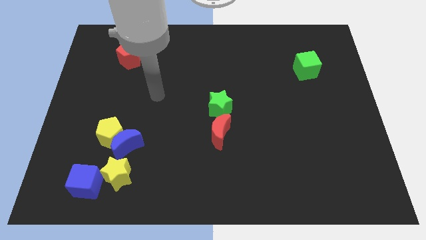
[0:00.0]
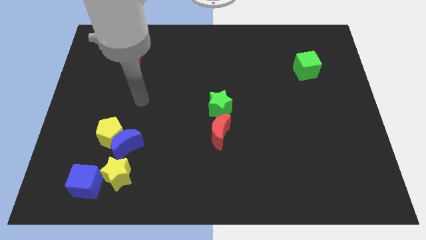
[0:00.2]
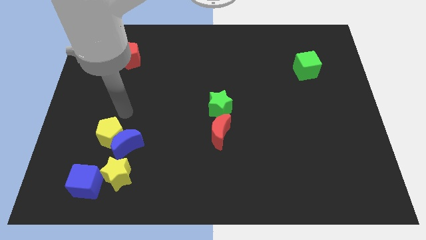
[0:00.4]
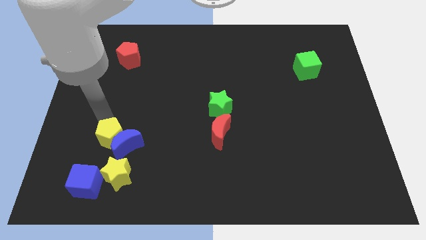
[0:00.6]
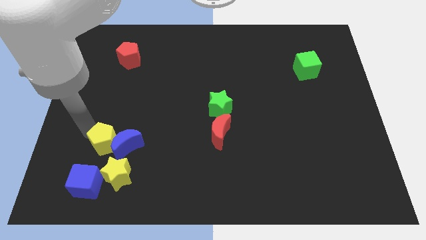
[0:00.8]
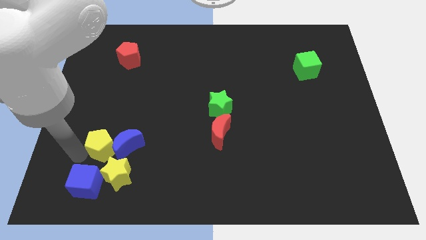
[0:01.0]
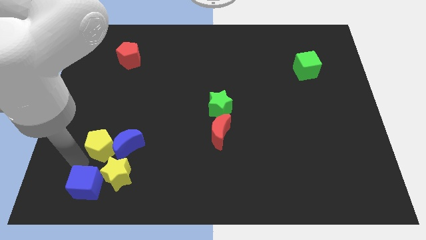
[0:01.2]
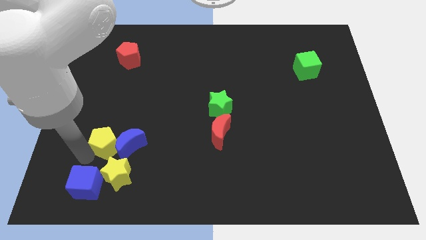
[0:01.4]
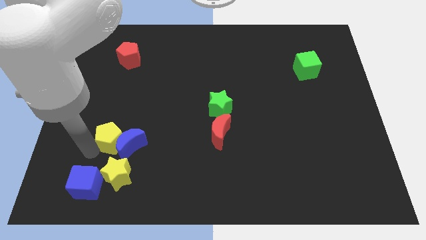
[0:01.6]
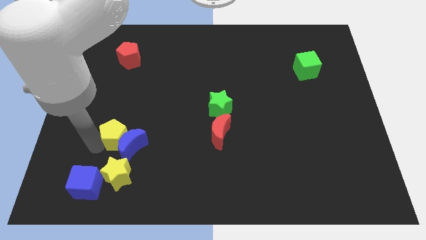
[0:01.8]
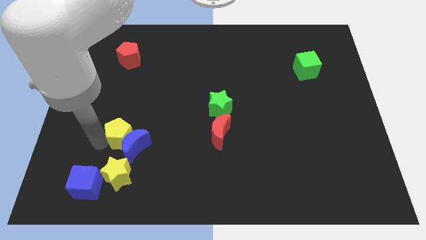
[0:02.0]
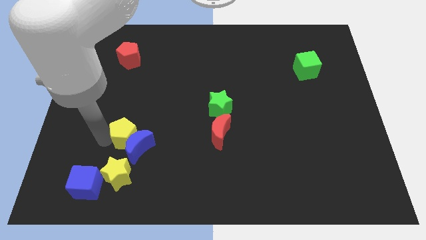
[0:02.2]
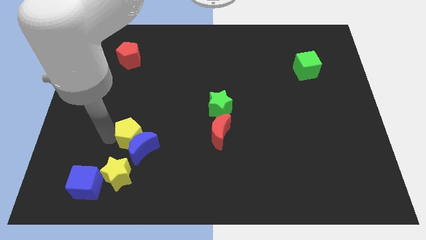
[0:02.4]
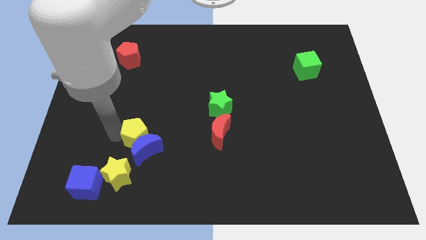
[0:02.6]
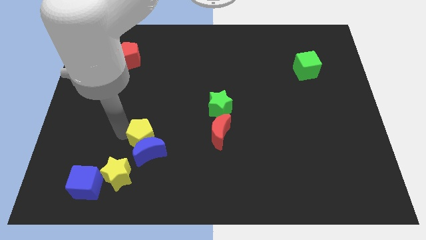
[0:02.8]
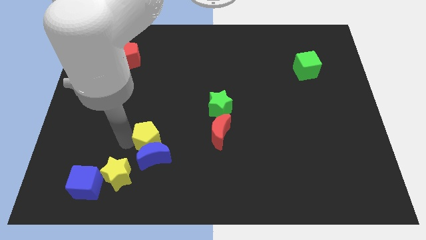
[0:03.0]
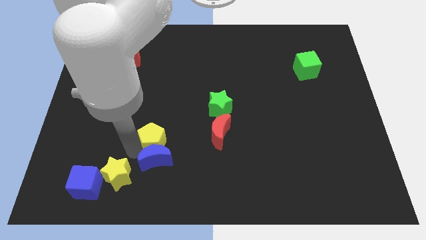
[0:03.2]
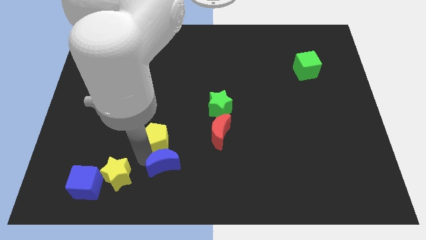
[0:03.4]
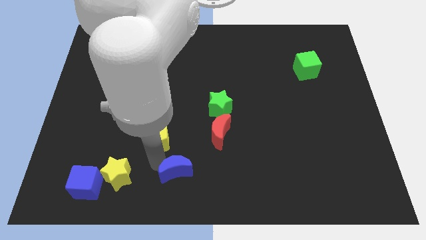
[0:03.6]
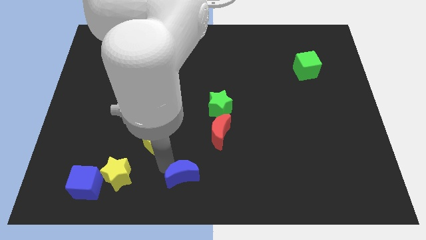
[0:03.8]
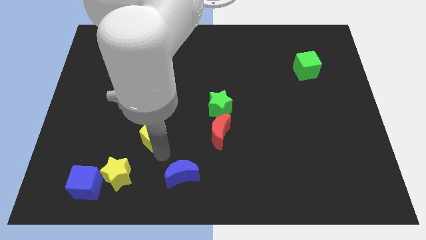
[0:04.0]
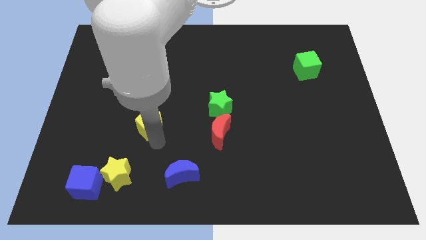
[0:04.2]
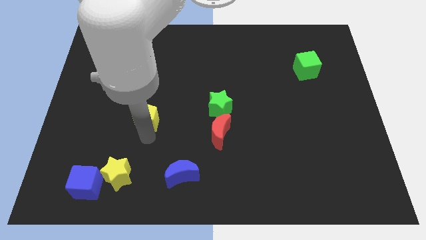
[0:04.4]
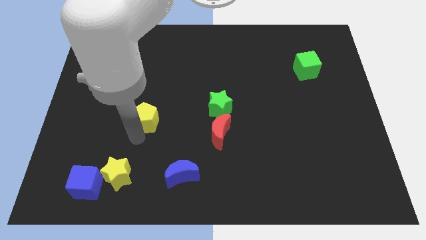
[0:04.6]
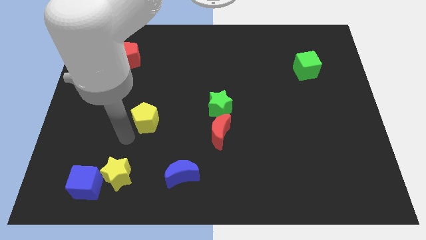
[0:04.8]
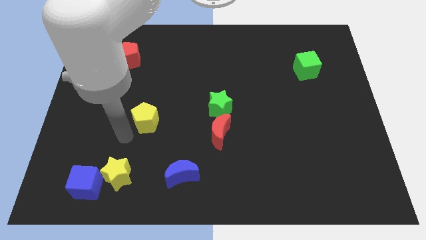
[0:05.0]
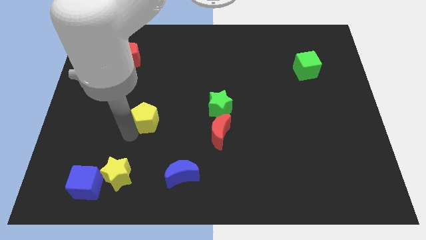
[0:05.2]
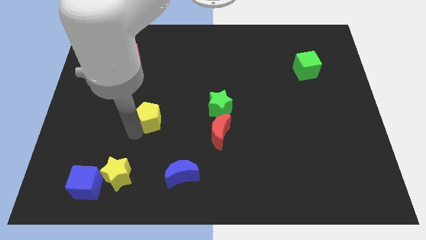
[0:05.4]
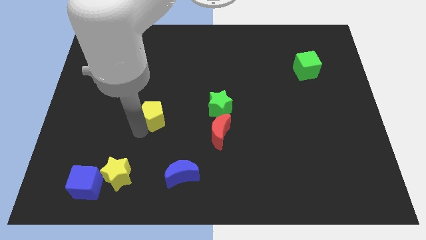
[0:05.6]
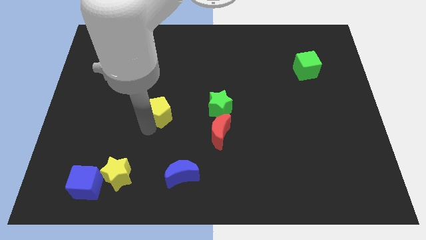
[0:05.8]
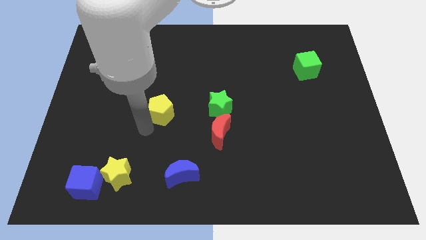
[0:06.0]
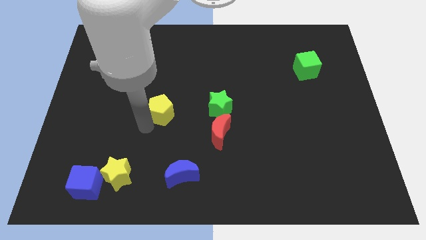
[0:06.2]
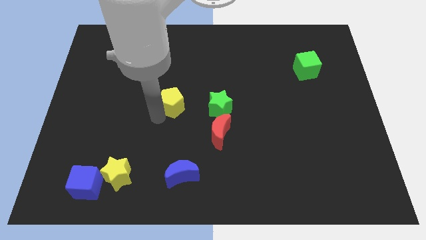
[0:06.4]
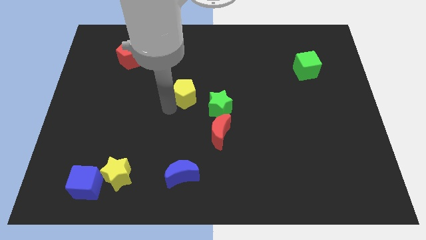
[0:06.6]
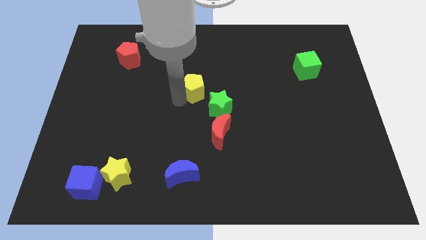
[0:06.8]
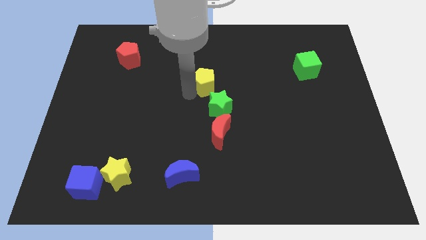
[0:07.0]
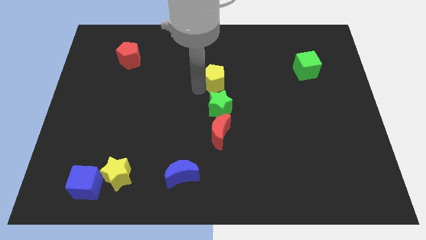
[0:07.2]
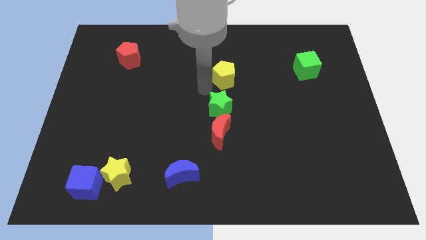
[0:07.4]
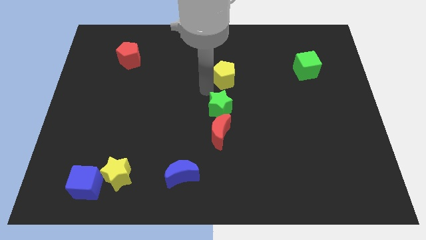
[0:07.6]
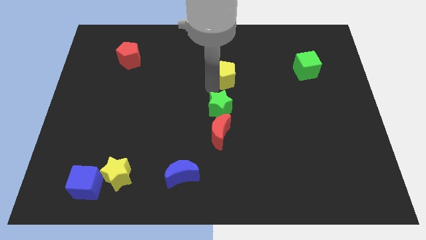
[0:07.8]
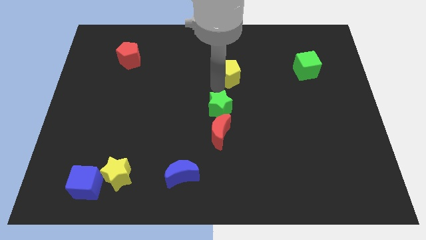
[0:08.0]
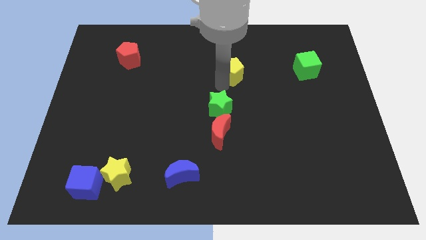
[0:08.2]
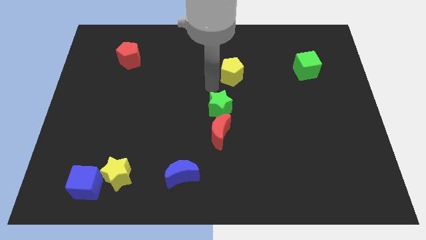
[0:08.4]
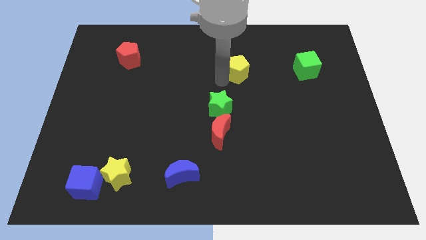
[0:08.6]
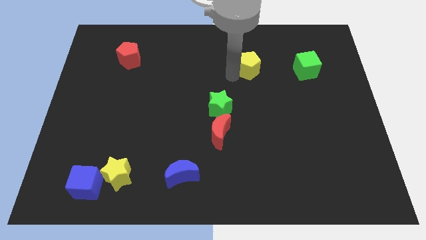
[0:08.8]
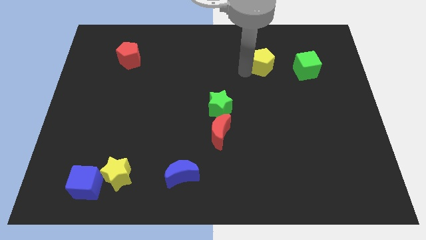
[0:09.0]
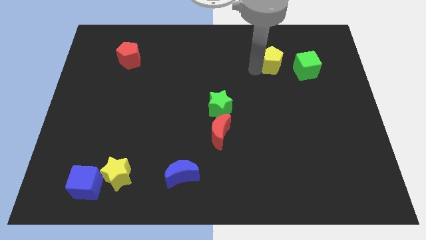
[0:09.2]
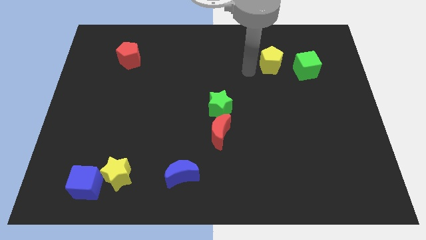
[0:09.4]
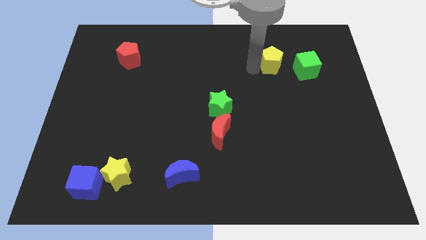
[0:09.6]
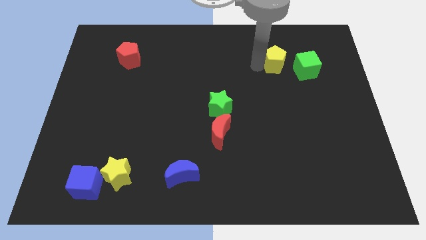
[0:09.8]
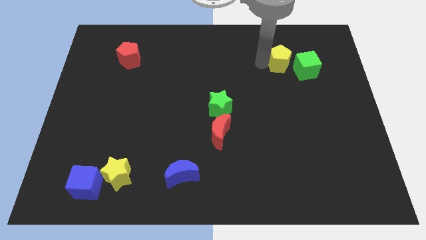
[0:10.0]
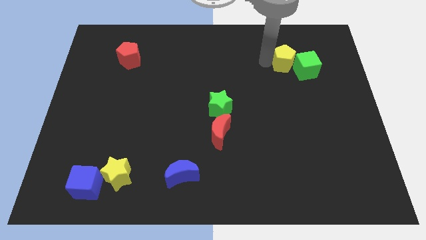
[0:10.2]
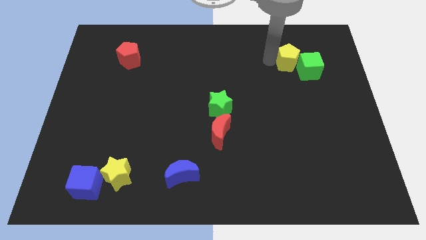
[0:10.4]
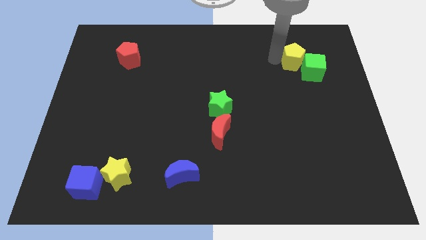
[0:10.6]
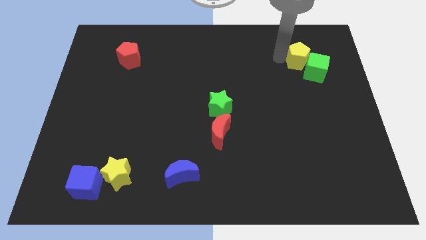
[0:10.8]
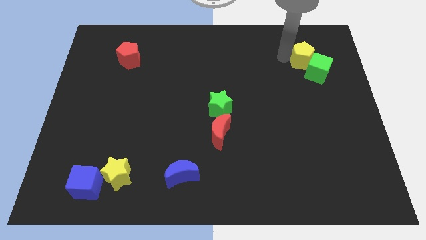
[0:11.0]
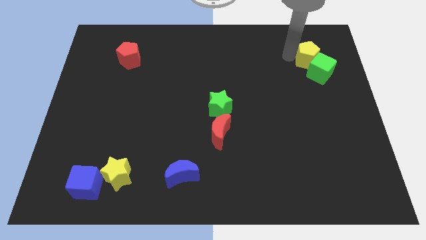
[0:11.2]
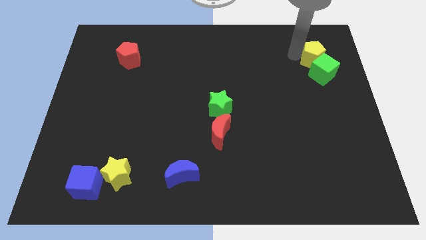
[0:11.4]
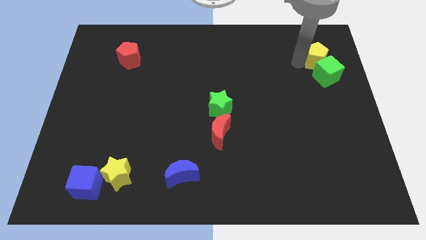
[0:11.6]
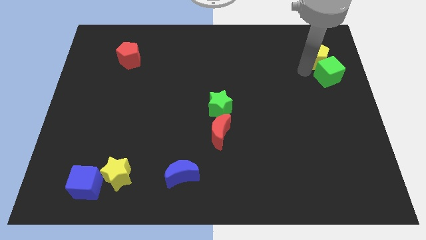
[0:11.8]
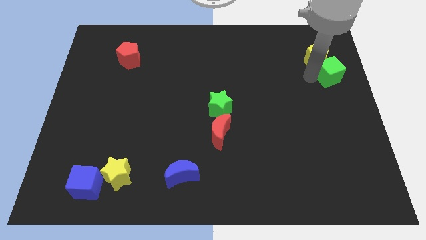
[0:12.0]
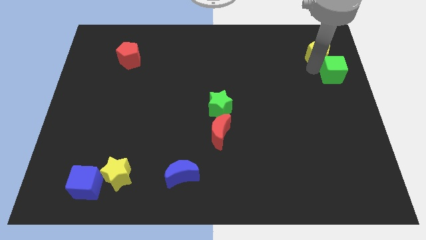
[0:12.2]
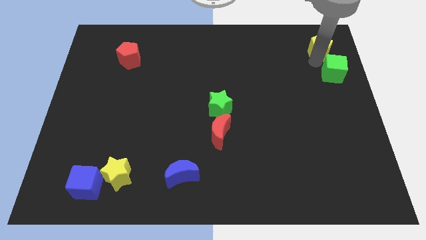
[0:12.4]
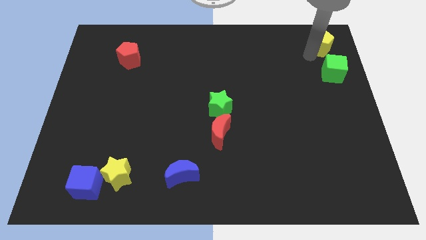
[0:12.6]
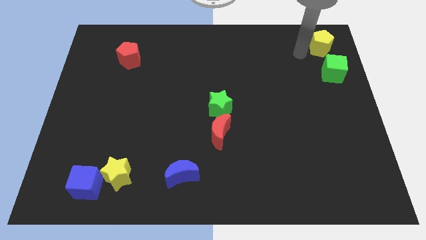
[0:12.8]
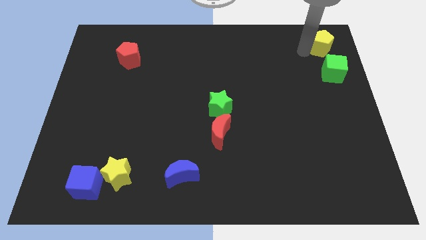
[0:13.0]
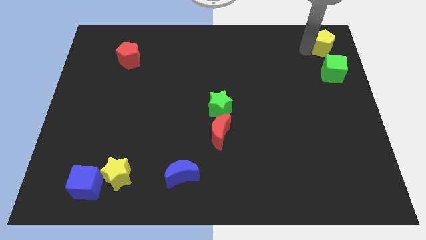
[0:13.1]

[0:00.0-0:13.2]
slide the yellow pentagon to the upper right corner

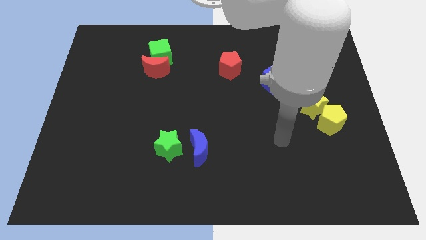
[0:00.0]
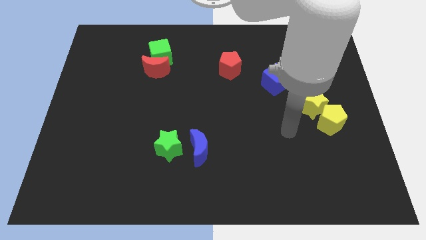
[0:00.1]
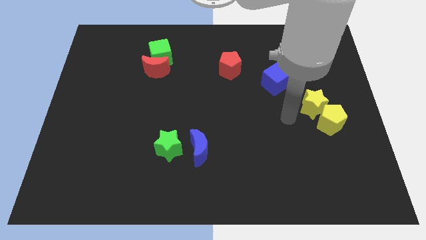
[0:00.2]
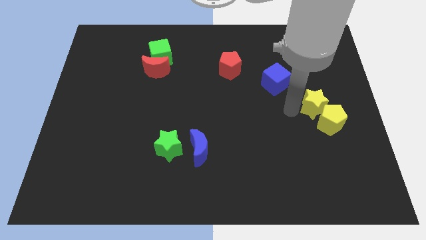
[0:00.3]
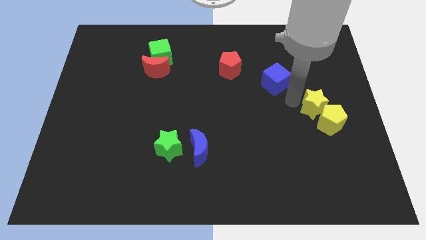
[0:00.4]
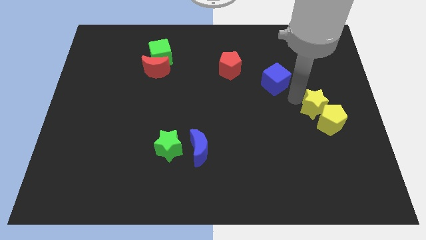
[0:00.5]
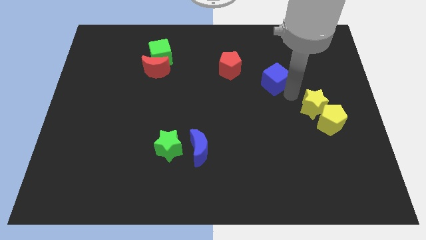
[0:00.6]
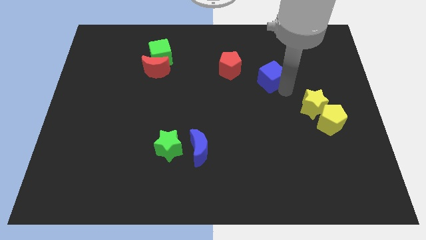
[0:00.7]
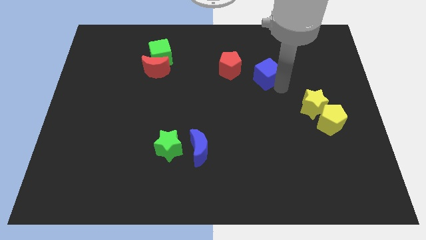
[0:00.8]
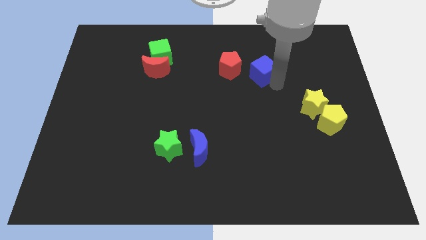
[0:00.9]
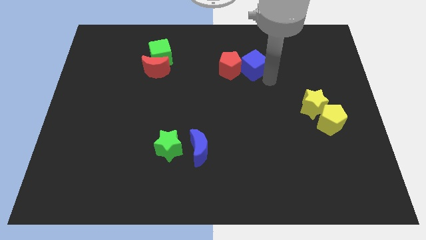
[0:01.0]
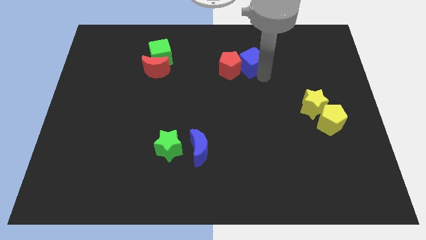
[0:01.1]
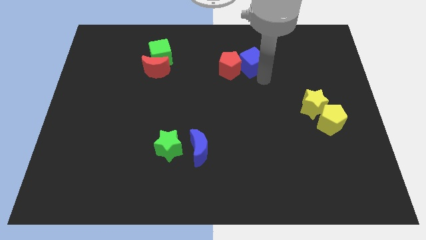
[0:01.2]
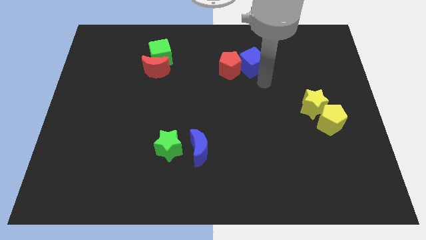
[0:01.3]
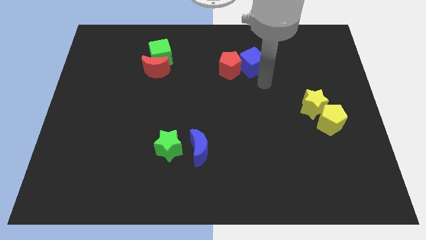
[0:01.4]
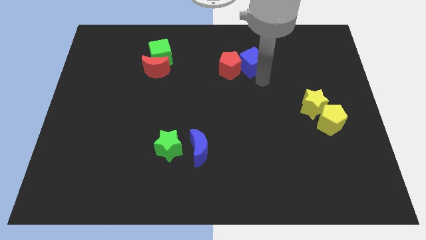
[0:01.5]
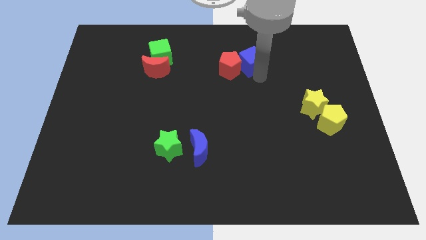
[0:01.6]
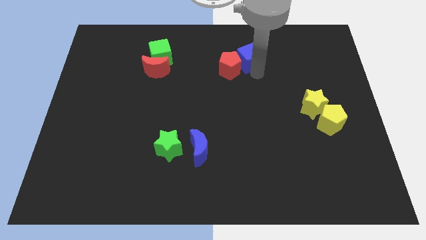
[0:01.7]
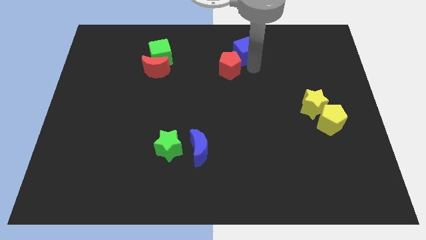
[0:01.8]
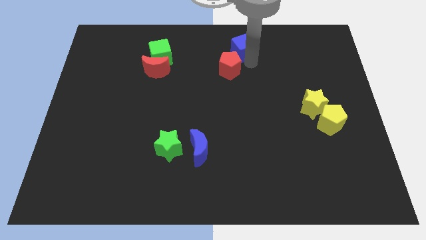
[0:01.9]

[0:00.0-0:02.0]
slide the blue cube to the top
